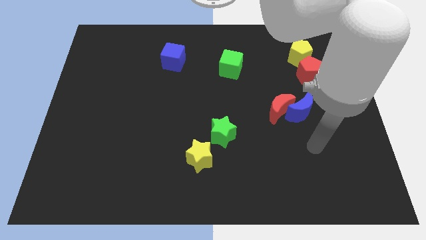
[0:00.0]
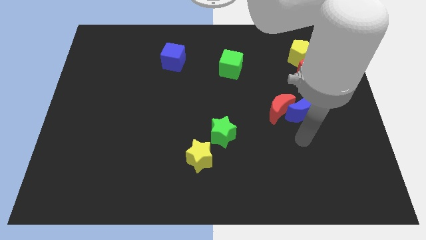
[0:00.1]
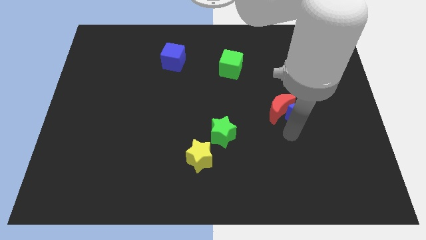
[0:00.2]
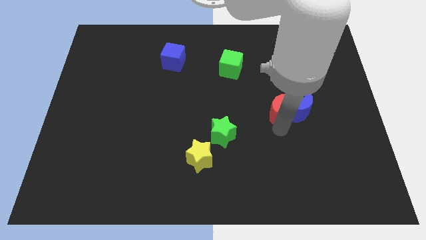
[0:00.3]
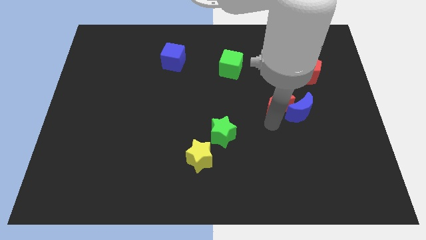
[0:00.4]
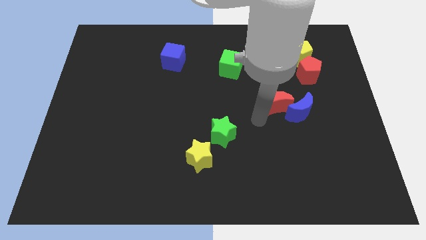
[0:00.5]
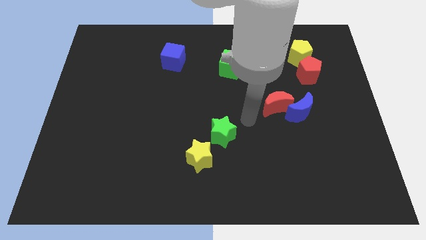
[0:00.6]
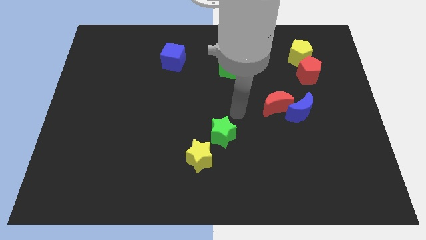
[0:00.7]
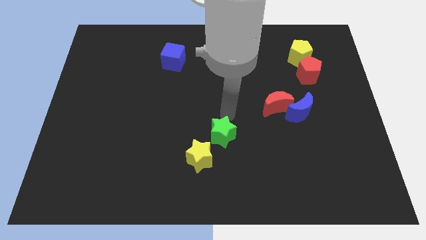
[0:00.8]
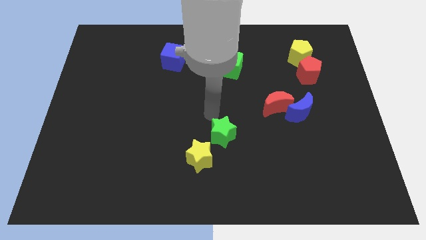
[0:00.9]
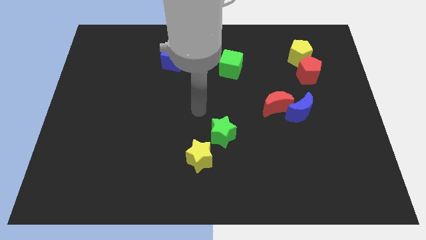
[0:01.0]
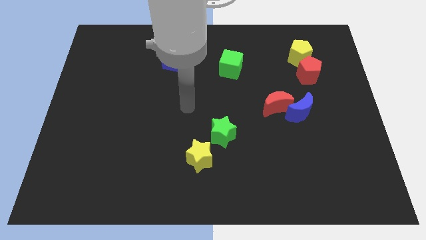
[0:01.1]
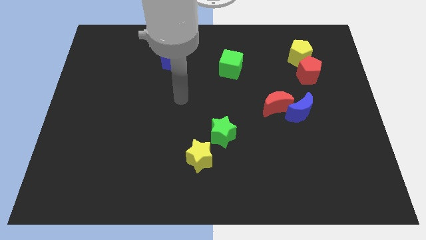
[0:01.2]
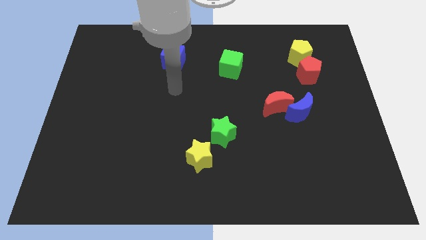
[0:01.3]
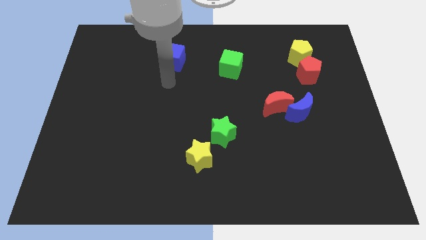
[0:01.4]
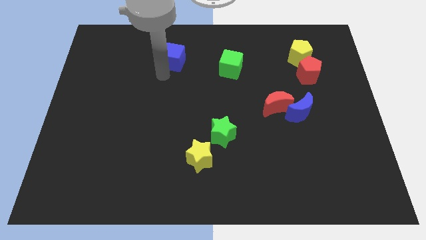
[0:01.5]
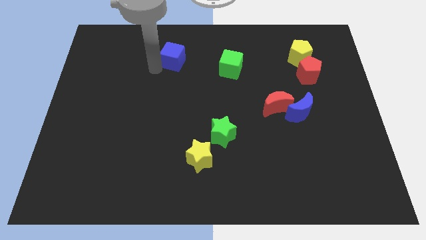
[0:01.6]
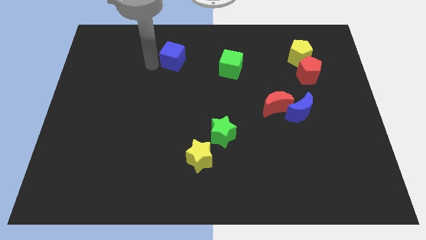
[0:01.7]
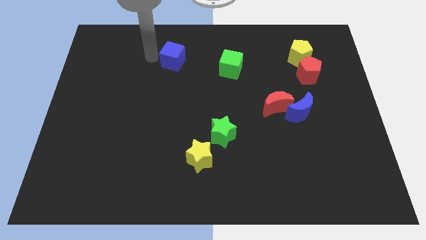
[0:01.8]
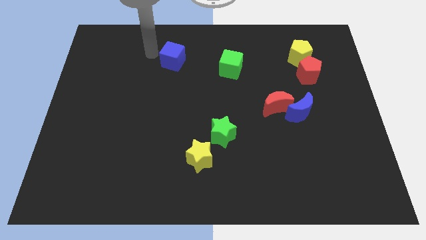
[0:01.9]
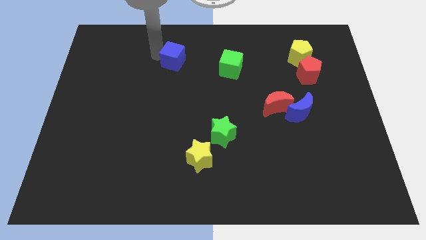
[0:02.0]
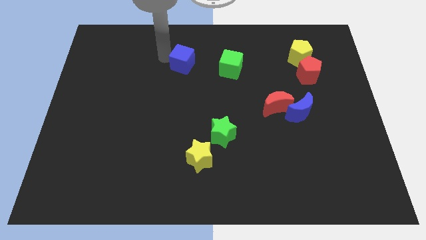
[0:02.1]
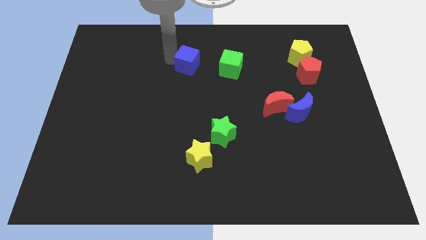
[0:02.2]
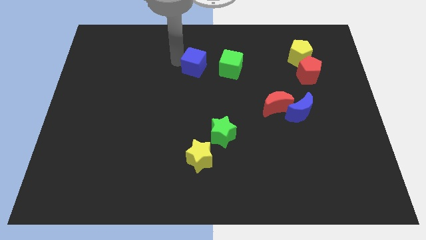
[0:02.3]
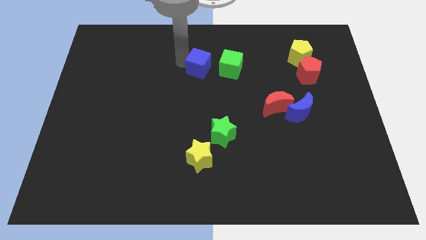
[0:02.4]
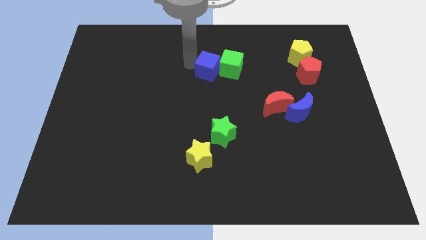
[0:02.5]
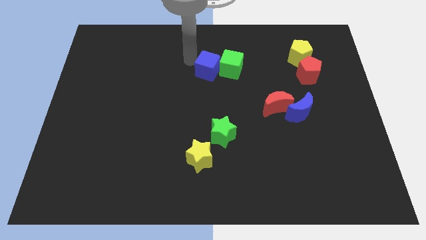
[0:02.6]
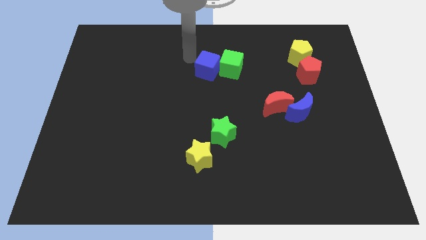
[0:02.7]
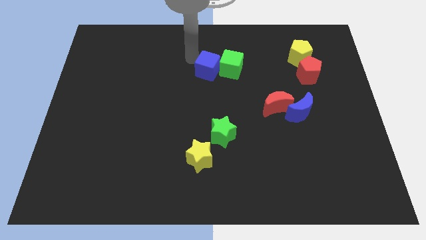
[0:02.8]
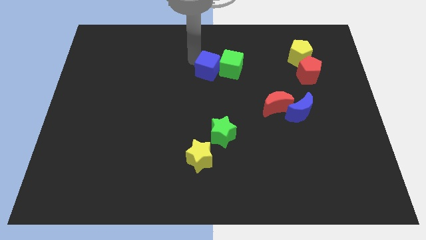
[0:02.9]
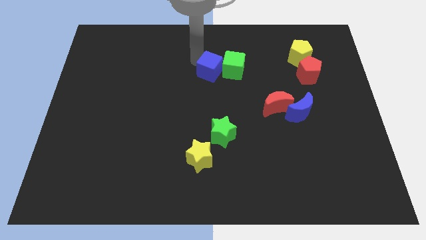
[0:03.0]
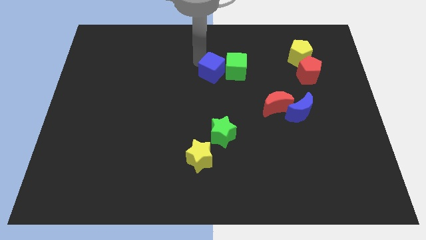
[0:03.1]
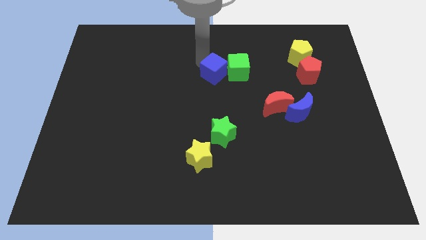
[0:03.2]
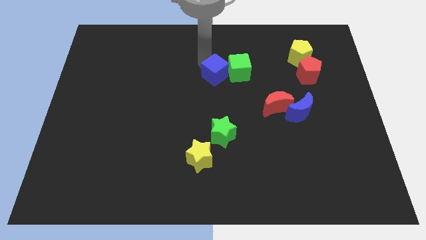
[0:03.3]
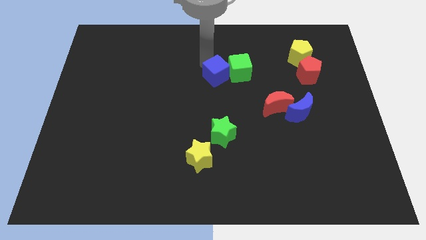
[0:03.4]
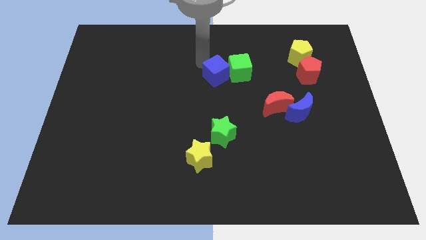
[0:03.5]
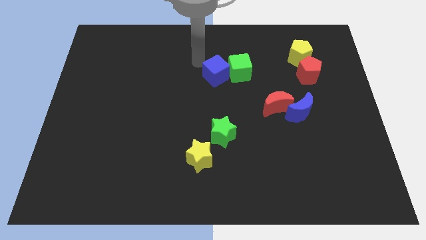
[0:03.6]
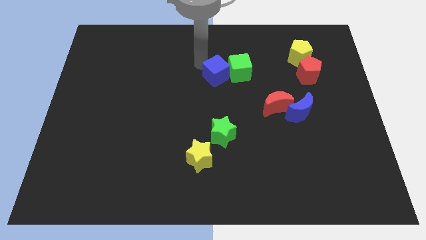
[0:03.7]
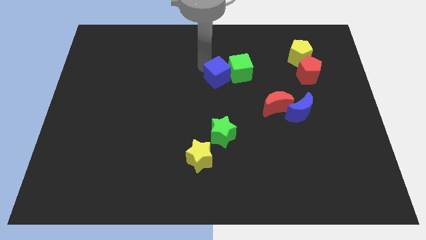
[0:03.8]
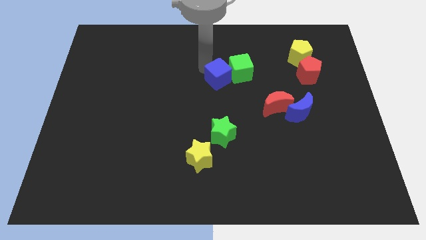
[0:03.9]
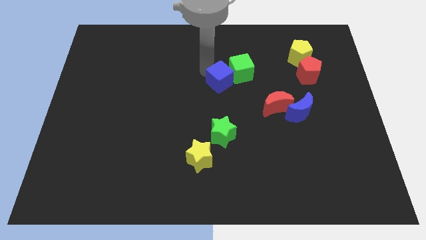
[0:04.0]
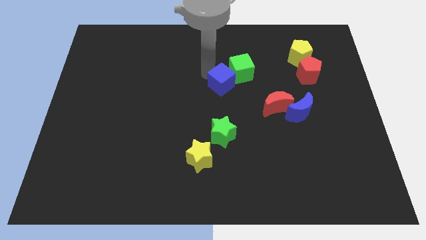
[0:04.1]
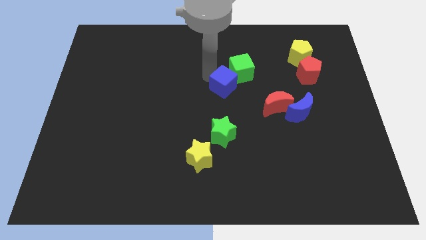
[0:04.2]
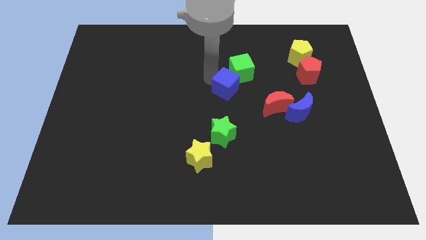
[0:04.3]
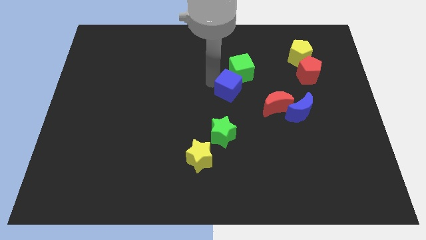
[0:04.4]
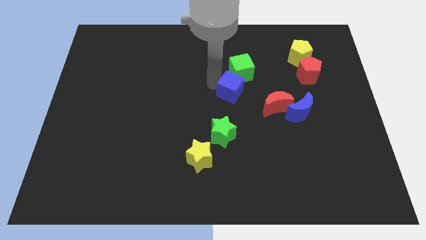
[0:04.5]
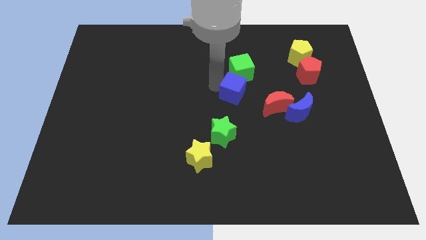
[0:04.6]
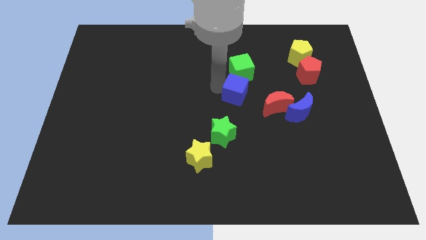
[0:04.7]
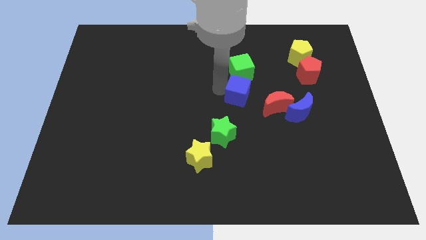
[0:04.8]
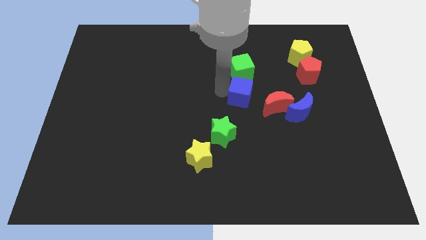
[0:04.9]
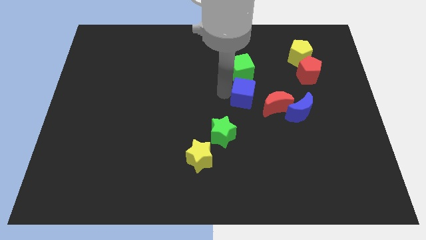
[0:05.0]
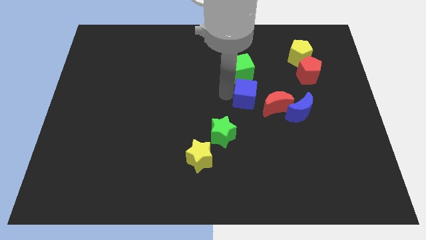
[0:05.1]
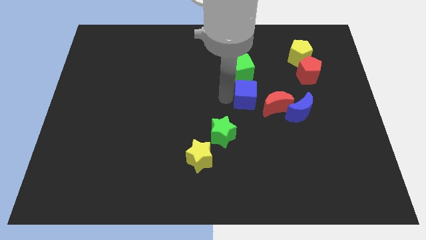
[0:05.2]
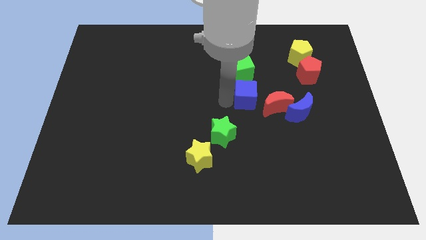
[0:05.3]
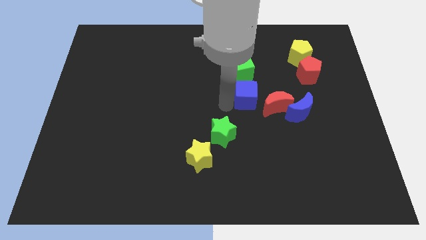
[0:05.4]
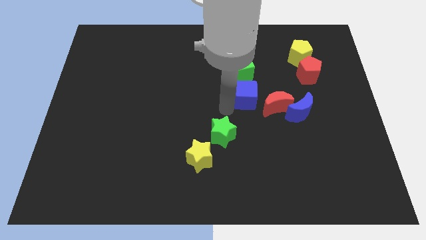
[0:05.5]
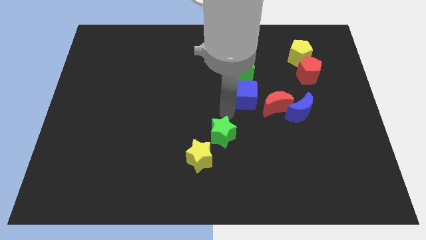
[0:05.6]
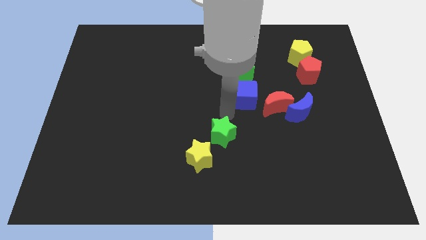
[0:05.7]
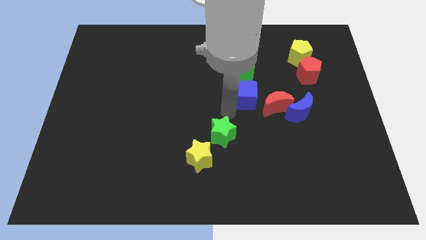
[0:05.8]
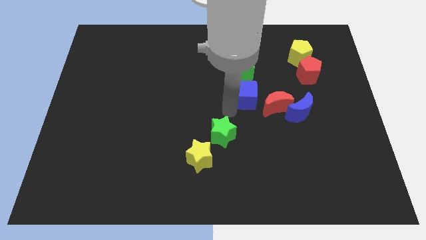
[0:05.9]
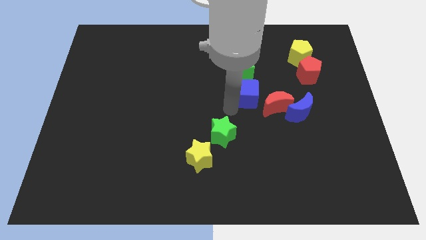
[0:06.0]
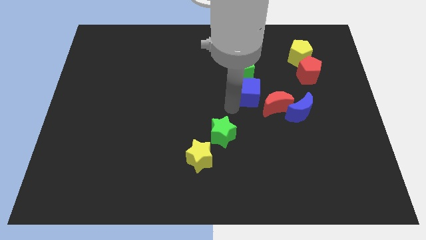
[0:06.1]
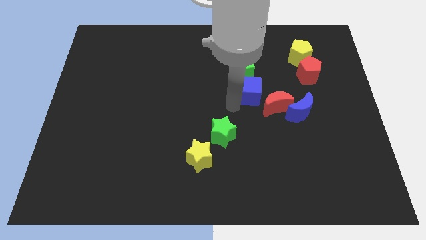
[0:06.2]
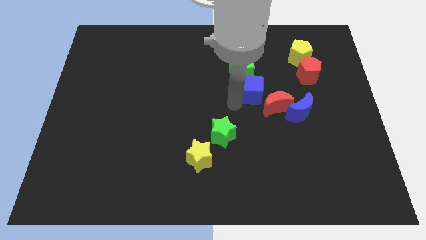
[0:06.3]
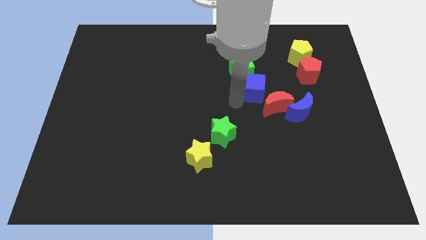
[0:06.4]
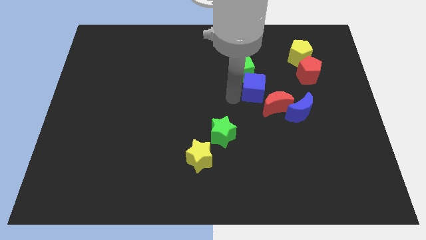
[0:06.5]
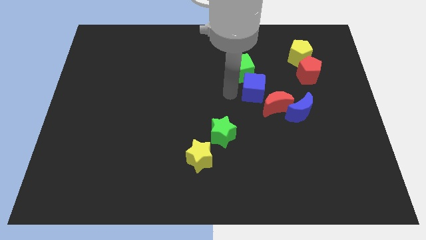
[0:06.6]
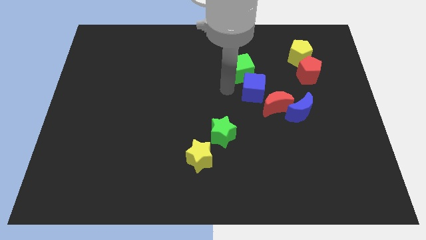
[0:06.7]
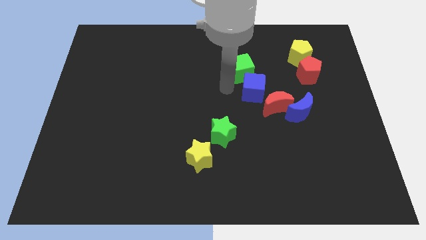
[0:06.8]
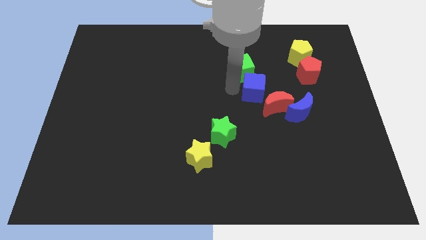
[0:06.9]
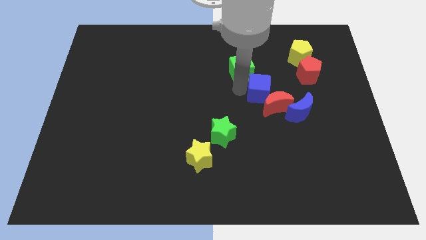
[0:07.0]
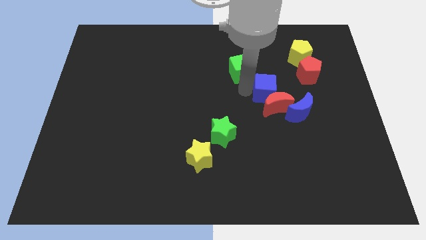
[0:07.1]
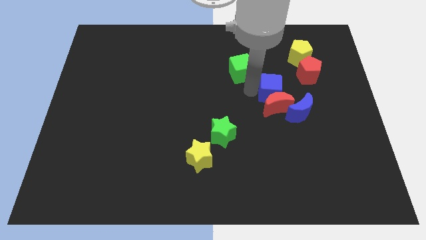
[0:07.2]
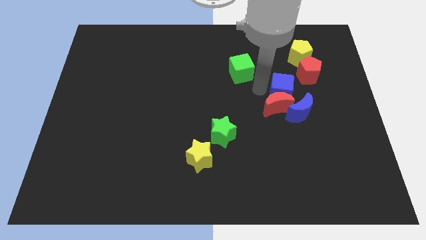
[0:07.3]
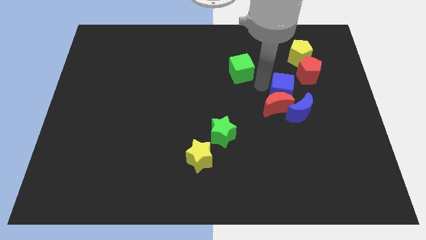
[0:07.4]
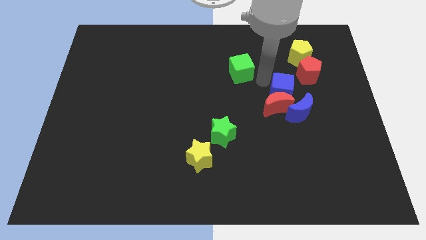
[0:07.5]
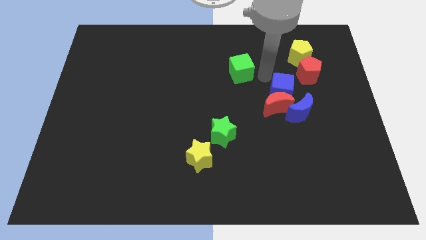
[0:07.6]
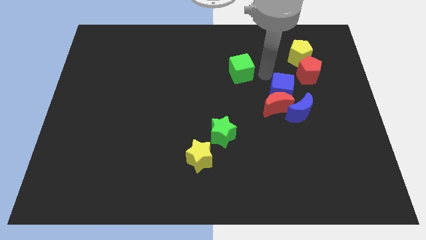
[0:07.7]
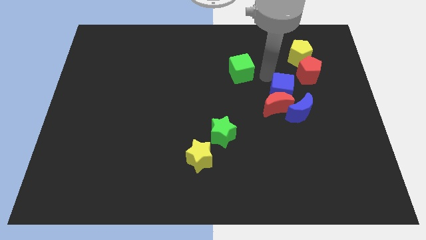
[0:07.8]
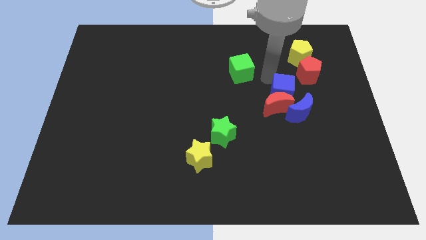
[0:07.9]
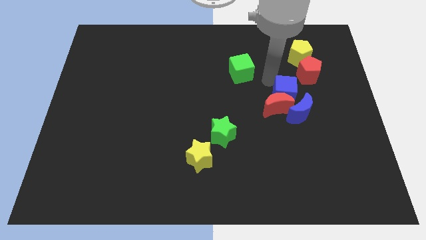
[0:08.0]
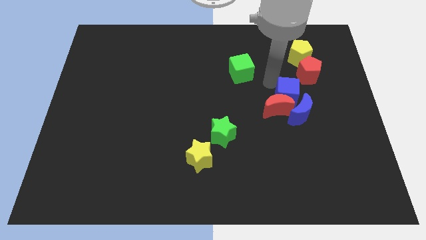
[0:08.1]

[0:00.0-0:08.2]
move the blue cube to the blue moon
